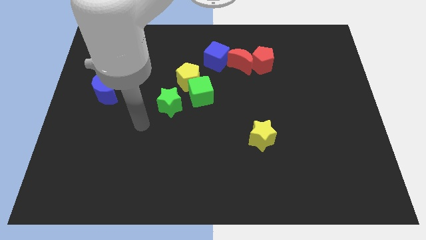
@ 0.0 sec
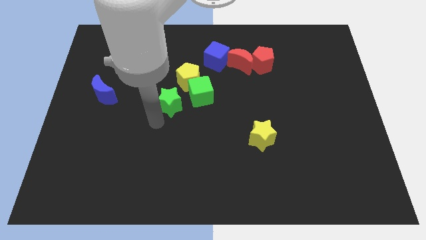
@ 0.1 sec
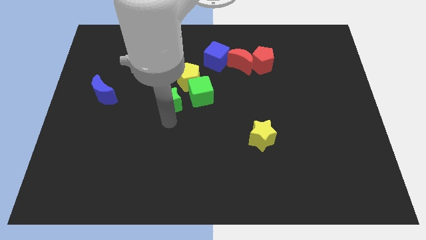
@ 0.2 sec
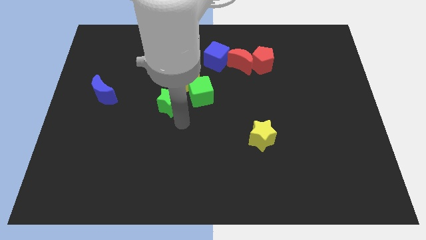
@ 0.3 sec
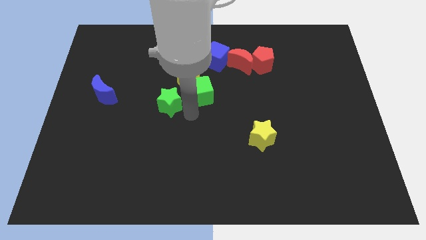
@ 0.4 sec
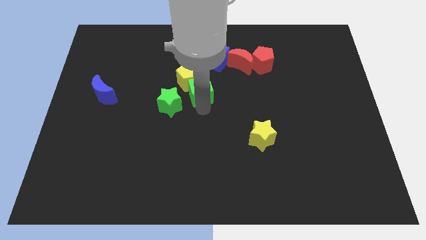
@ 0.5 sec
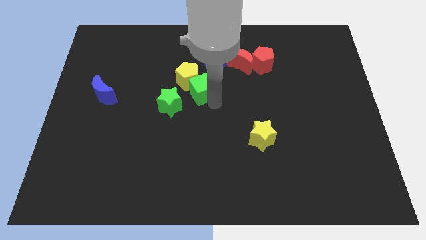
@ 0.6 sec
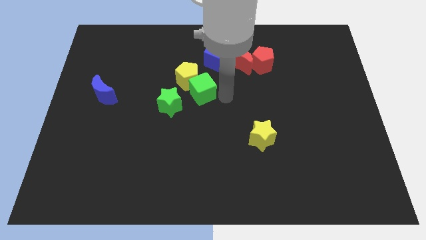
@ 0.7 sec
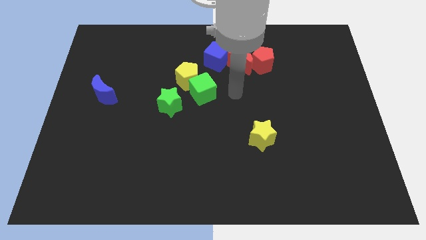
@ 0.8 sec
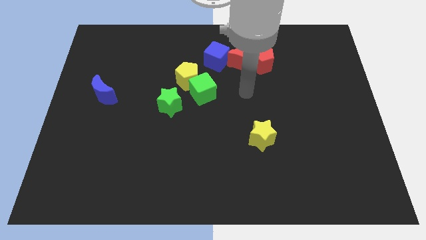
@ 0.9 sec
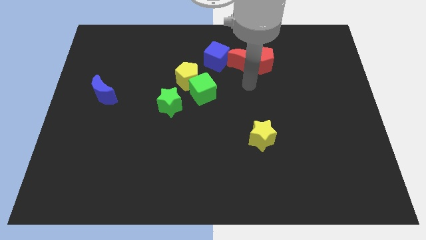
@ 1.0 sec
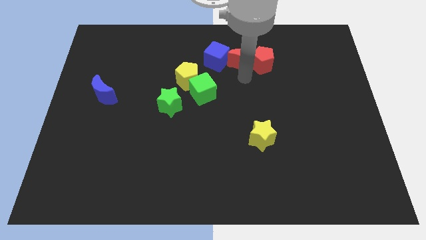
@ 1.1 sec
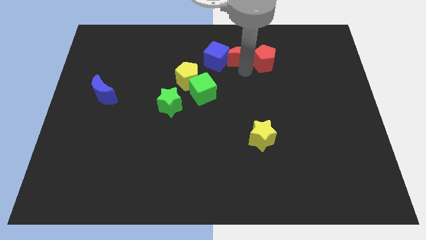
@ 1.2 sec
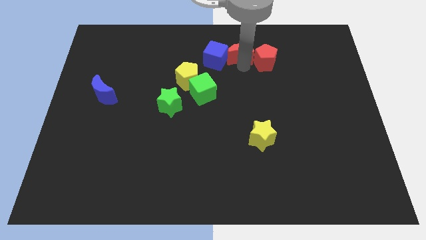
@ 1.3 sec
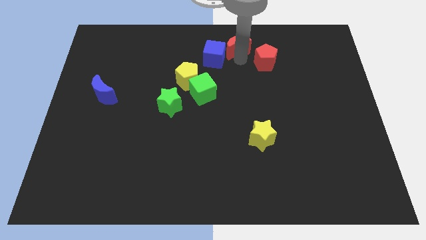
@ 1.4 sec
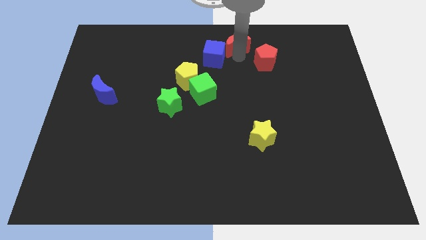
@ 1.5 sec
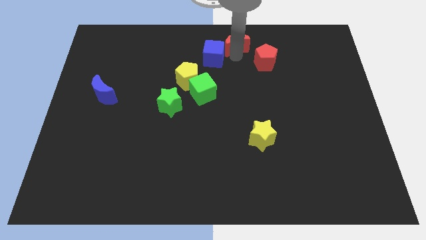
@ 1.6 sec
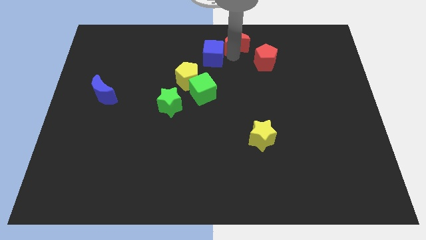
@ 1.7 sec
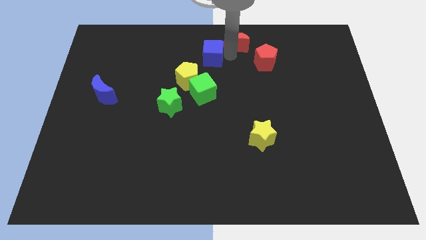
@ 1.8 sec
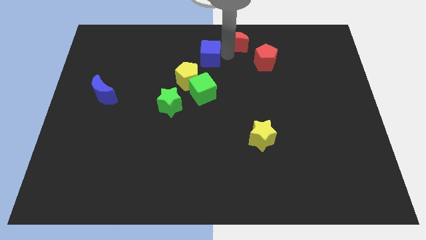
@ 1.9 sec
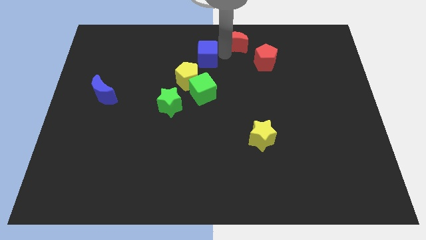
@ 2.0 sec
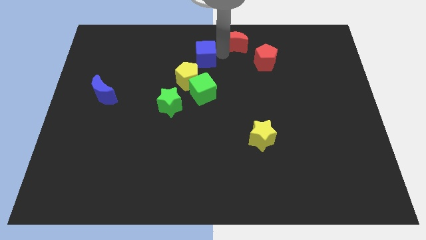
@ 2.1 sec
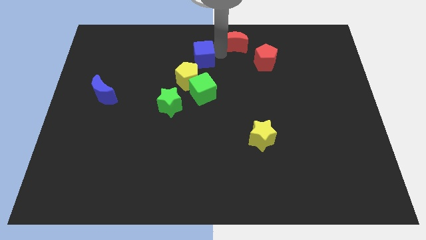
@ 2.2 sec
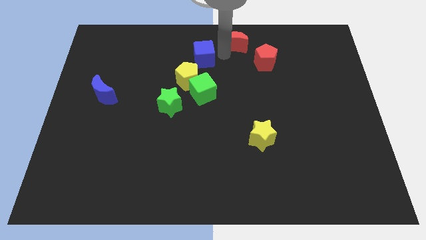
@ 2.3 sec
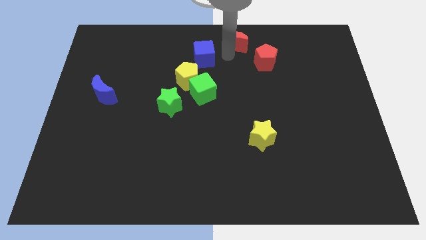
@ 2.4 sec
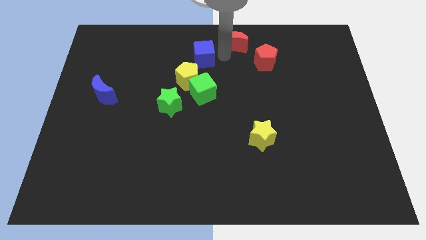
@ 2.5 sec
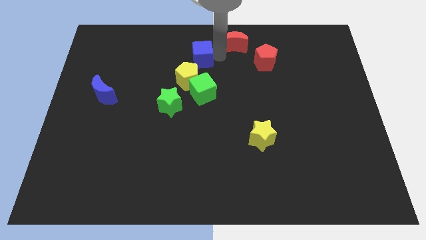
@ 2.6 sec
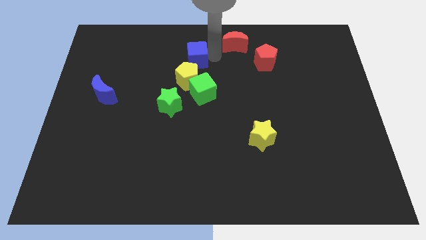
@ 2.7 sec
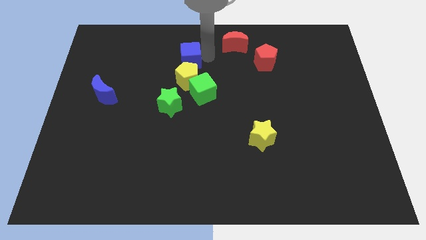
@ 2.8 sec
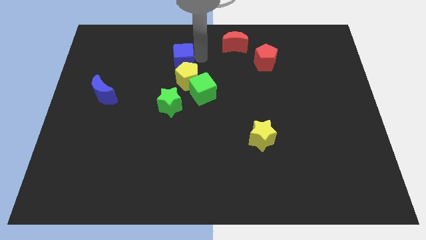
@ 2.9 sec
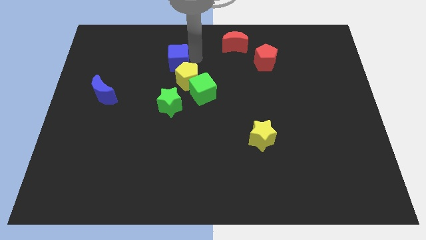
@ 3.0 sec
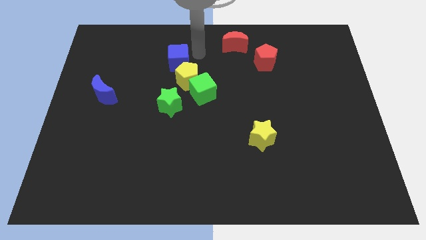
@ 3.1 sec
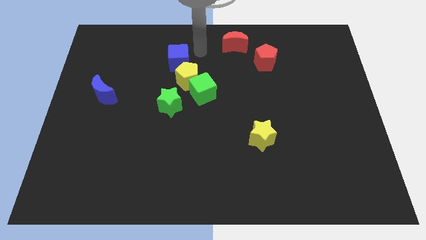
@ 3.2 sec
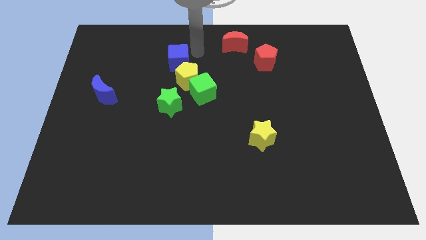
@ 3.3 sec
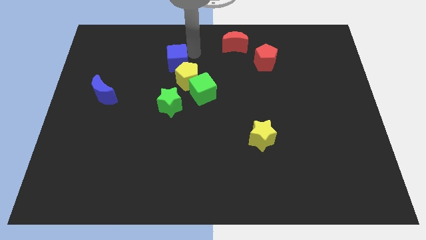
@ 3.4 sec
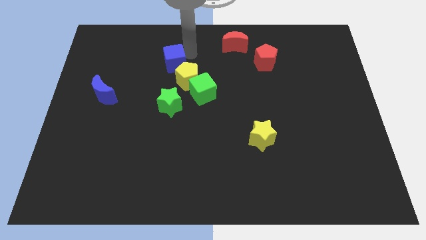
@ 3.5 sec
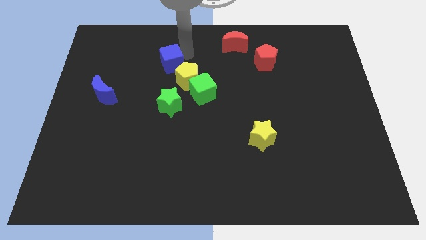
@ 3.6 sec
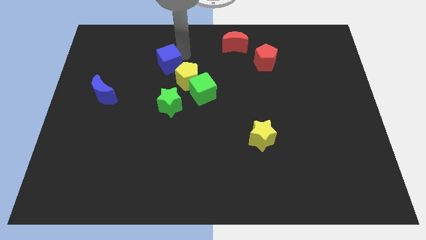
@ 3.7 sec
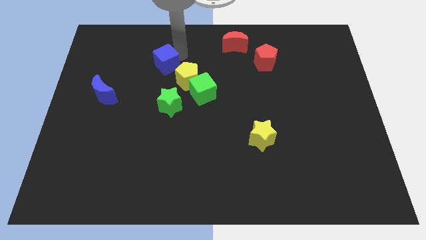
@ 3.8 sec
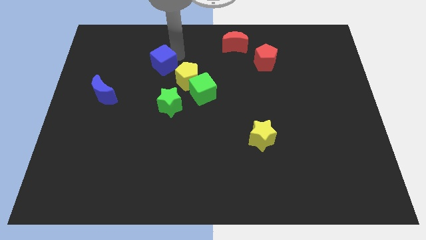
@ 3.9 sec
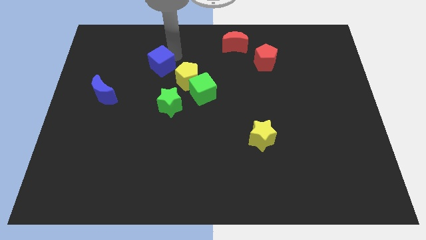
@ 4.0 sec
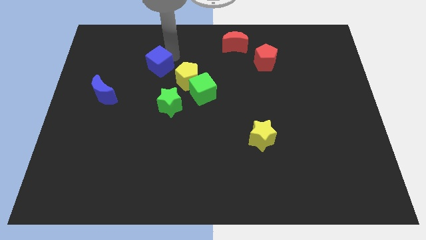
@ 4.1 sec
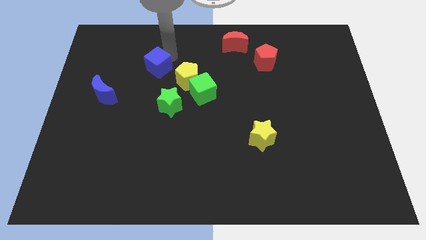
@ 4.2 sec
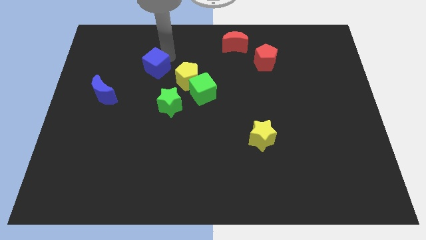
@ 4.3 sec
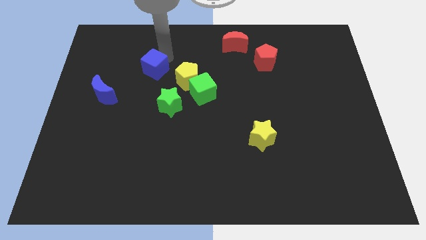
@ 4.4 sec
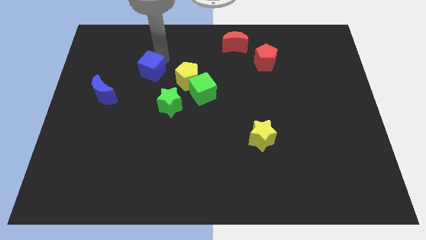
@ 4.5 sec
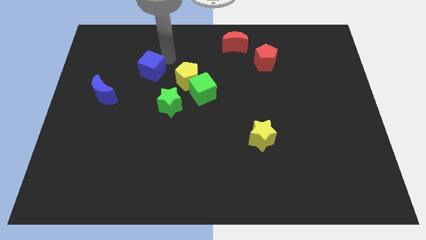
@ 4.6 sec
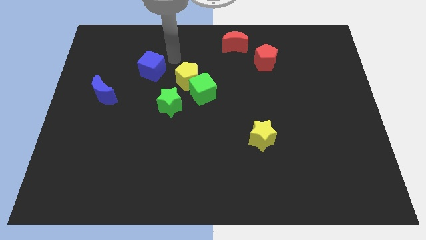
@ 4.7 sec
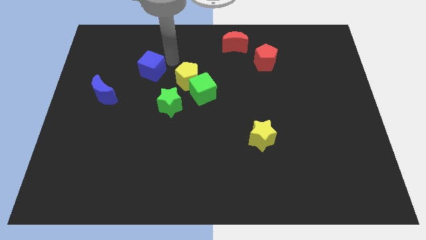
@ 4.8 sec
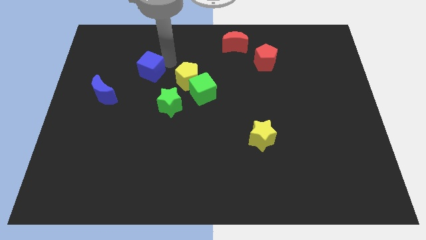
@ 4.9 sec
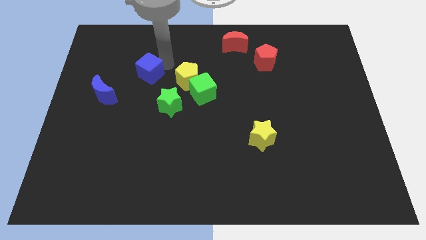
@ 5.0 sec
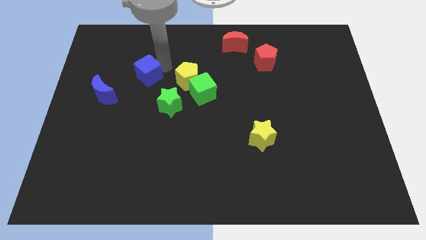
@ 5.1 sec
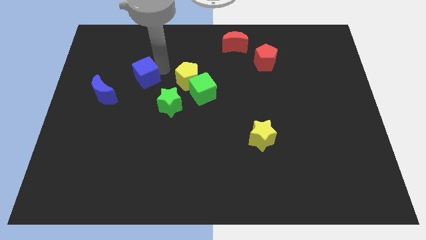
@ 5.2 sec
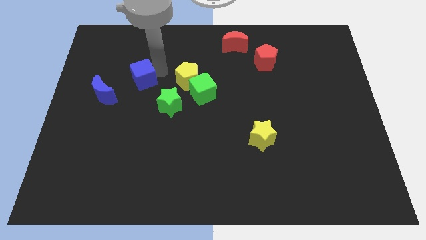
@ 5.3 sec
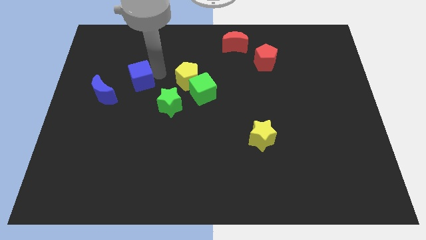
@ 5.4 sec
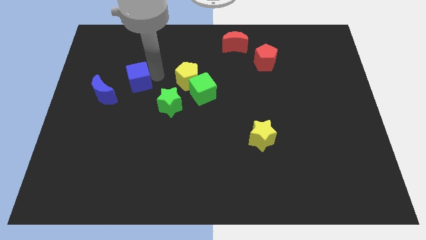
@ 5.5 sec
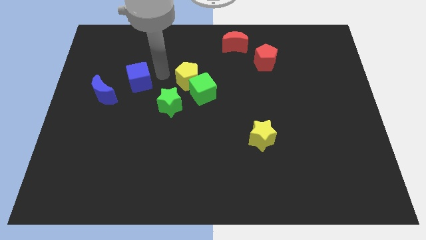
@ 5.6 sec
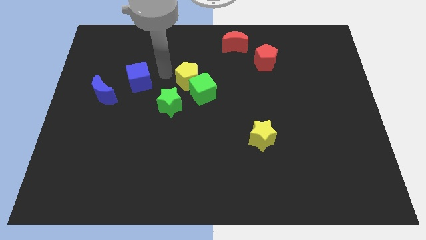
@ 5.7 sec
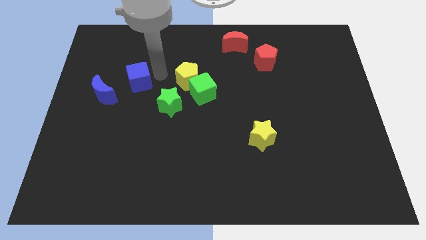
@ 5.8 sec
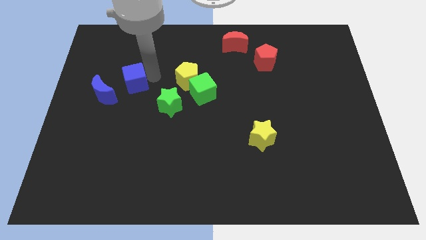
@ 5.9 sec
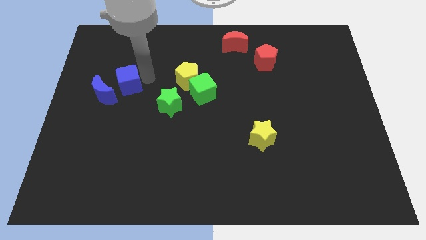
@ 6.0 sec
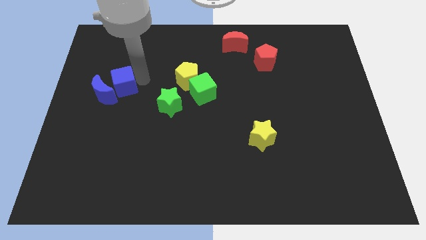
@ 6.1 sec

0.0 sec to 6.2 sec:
push the blue cube to the blue moon

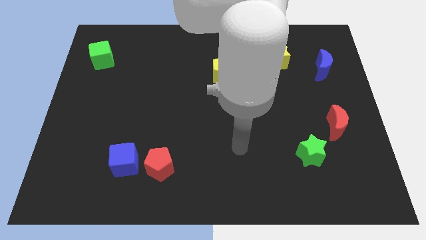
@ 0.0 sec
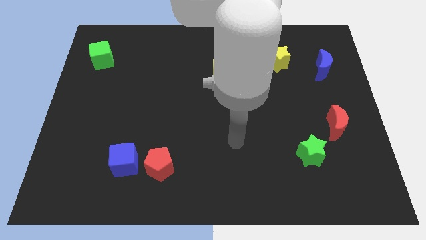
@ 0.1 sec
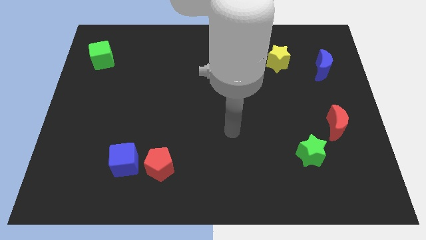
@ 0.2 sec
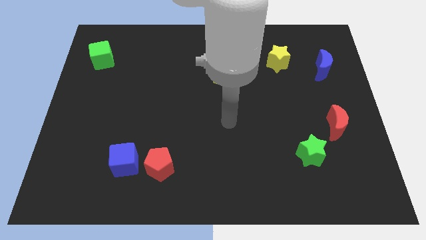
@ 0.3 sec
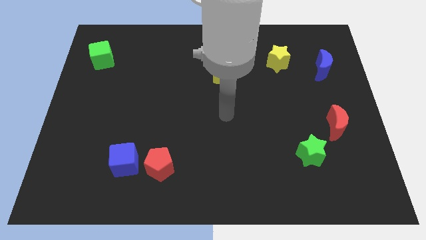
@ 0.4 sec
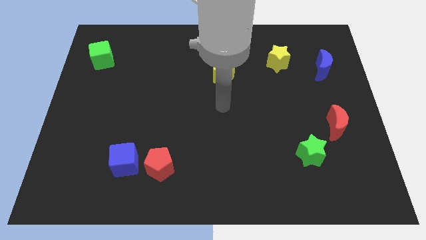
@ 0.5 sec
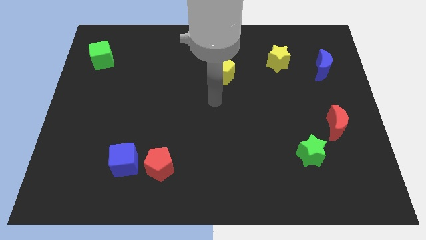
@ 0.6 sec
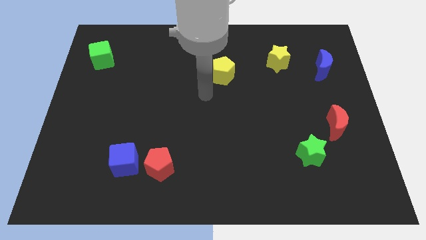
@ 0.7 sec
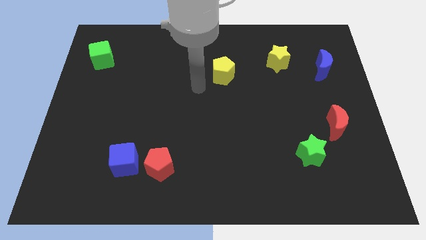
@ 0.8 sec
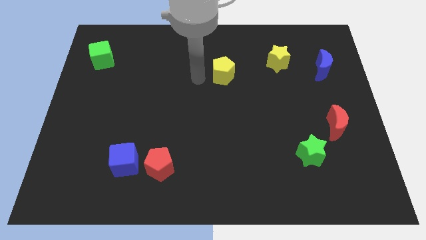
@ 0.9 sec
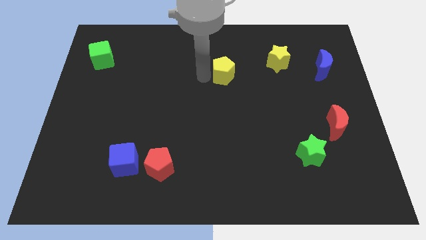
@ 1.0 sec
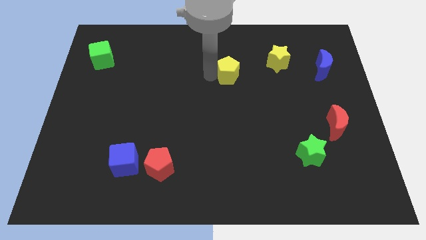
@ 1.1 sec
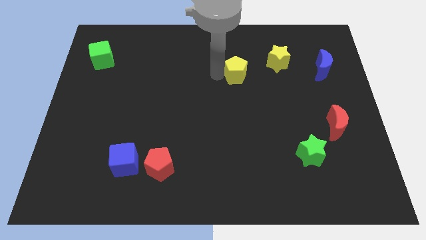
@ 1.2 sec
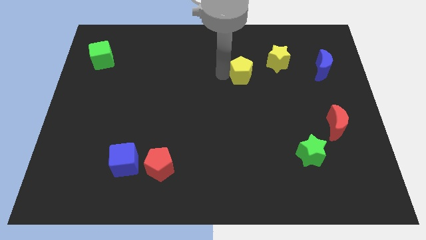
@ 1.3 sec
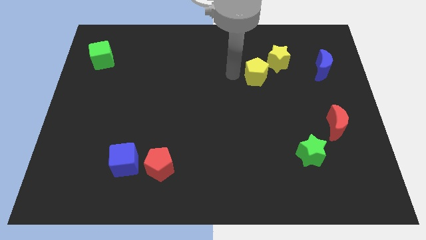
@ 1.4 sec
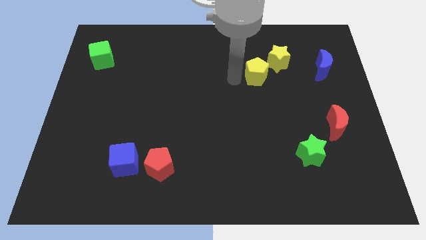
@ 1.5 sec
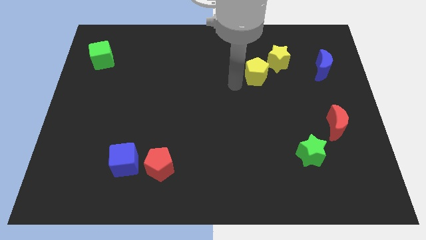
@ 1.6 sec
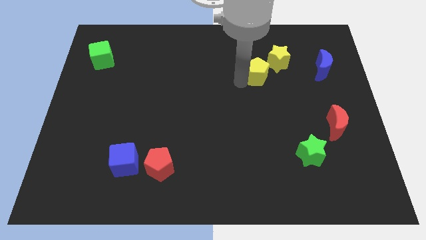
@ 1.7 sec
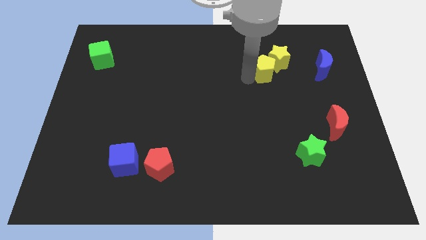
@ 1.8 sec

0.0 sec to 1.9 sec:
put the yellow pentagon to the yellow star
